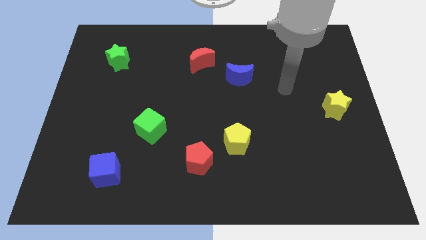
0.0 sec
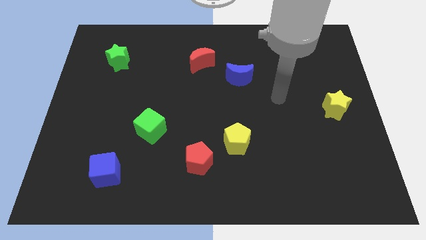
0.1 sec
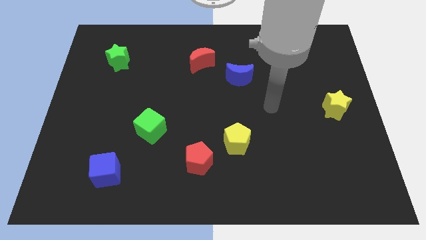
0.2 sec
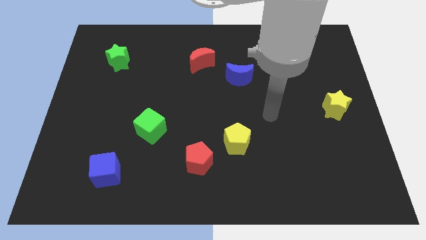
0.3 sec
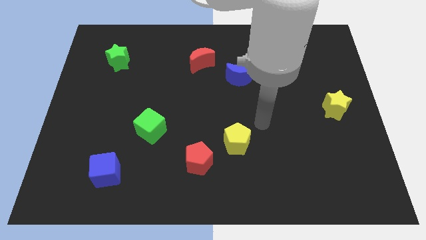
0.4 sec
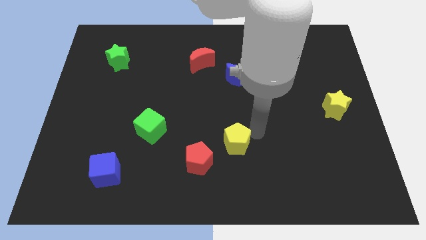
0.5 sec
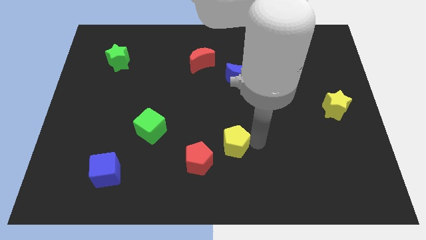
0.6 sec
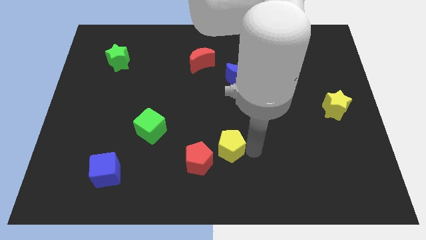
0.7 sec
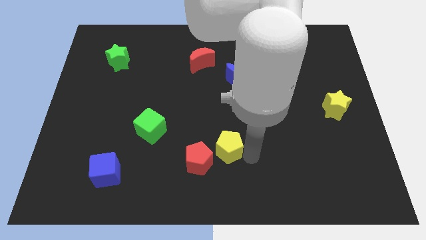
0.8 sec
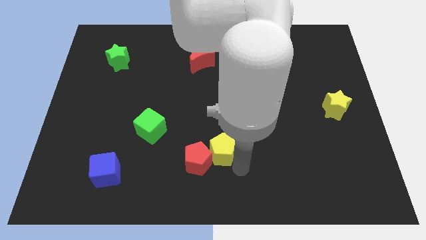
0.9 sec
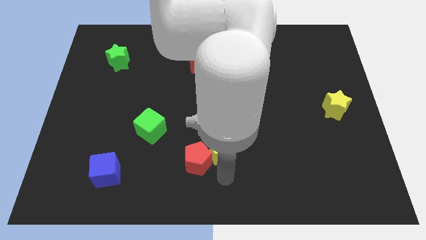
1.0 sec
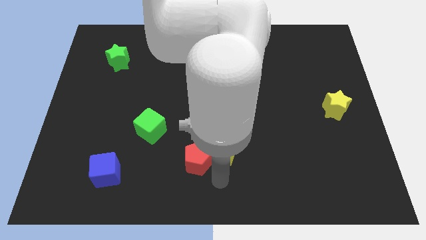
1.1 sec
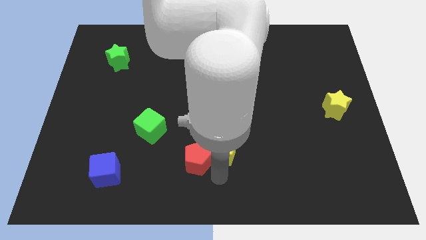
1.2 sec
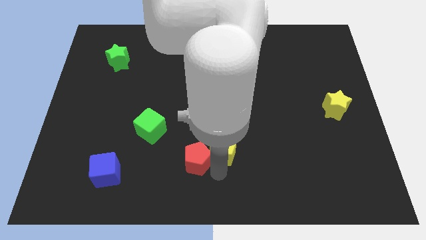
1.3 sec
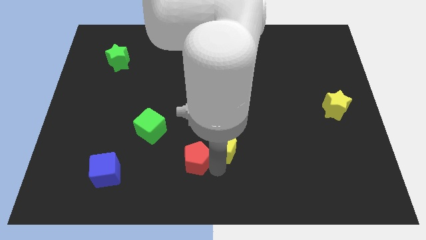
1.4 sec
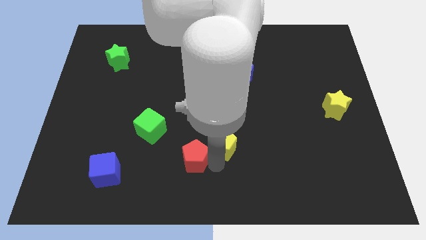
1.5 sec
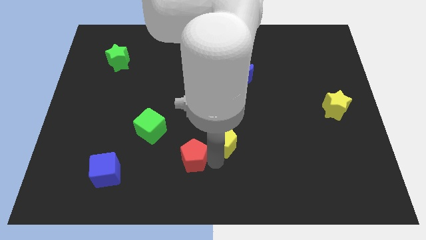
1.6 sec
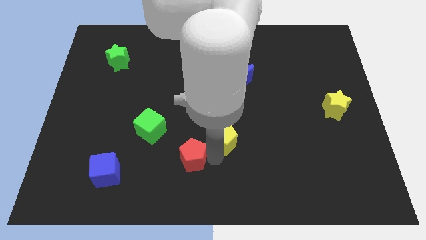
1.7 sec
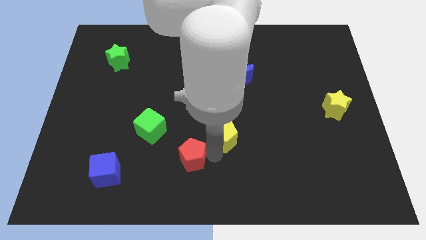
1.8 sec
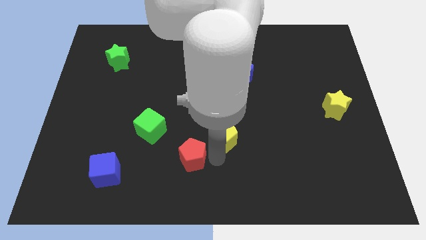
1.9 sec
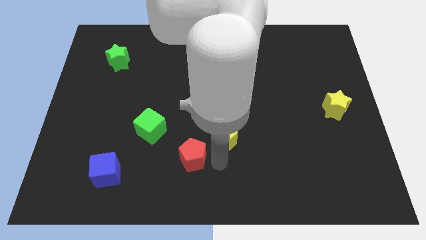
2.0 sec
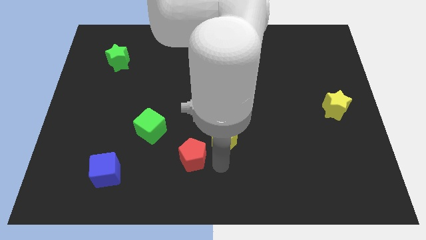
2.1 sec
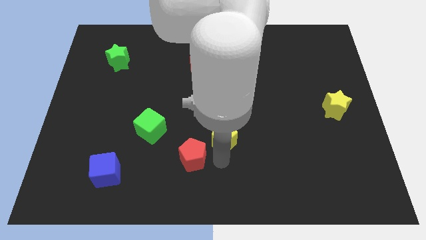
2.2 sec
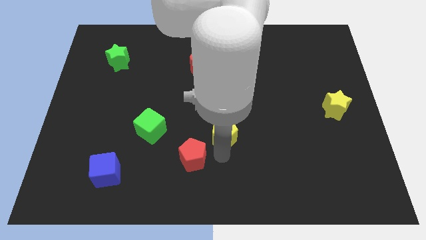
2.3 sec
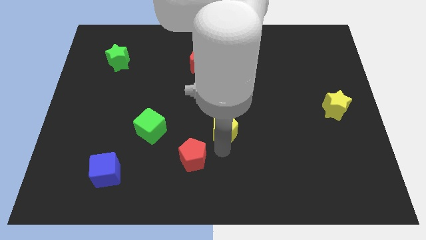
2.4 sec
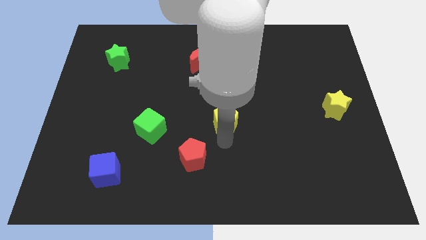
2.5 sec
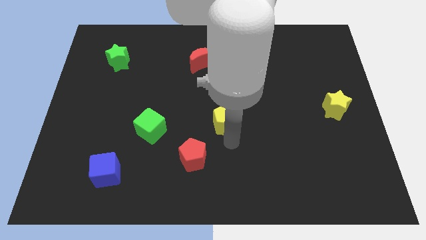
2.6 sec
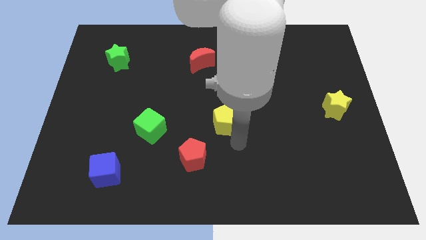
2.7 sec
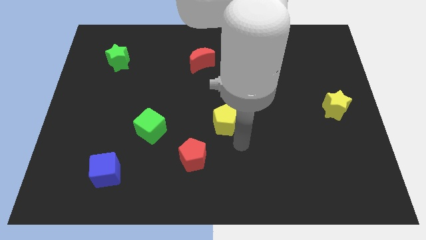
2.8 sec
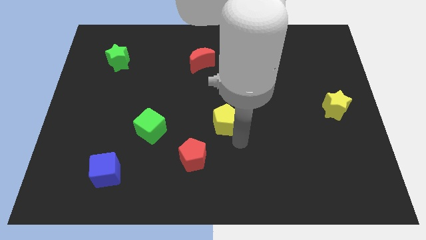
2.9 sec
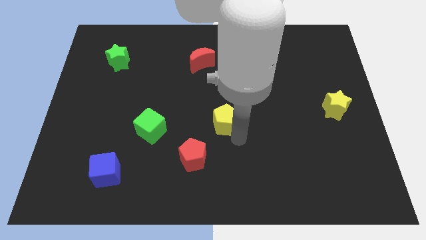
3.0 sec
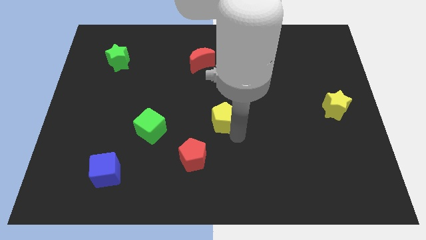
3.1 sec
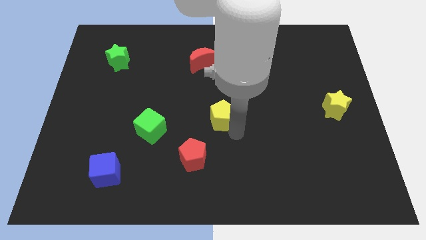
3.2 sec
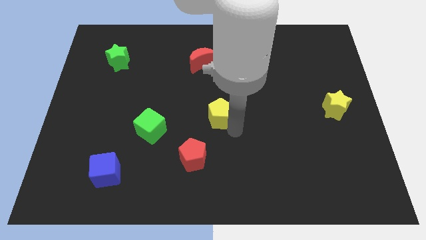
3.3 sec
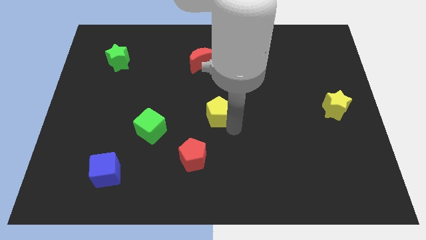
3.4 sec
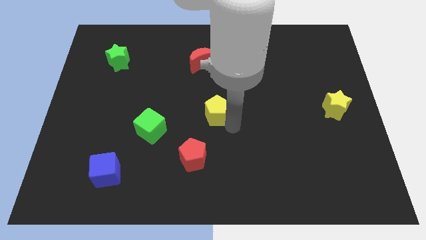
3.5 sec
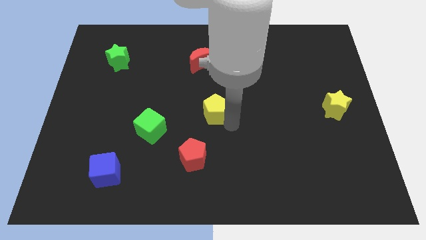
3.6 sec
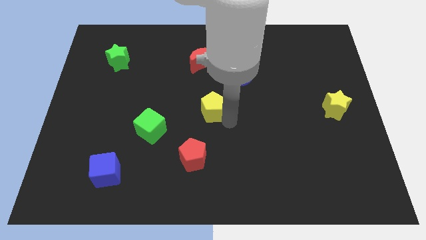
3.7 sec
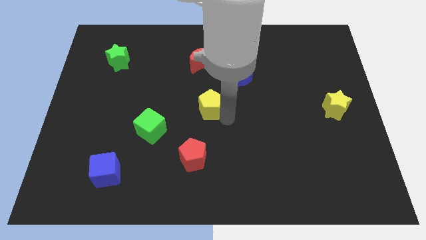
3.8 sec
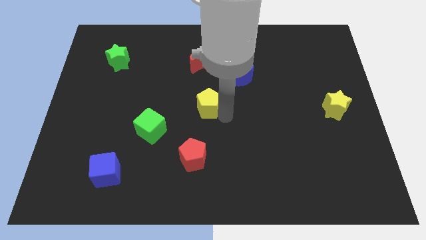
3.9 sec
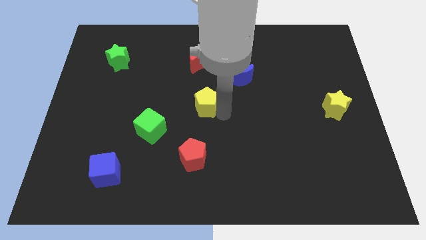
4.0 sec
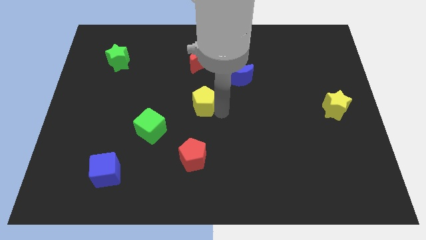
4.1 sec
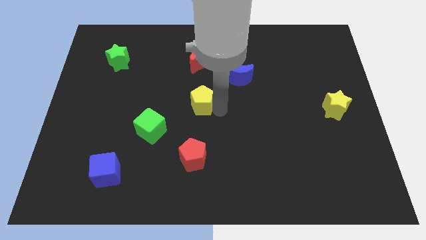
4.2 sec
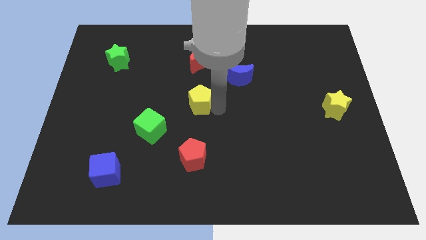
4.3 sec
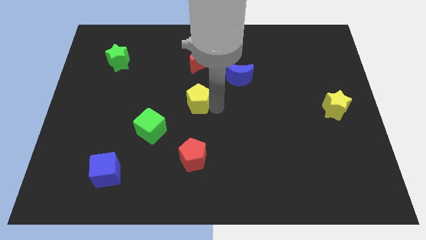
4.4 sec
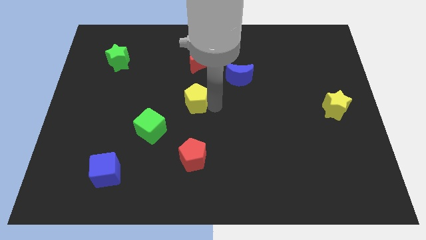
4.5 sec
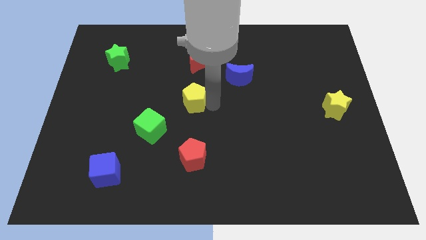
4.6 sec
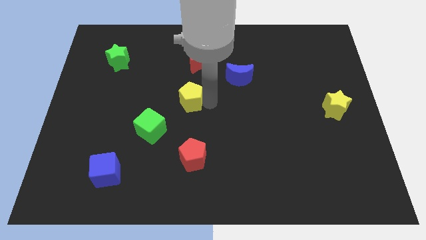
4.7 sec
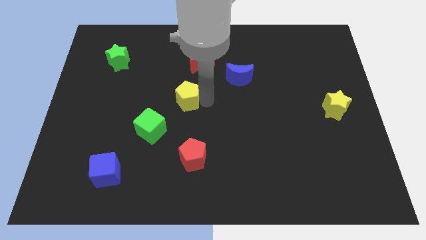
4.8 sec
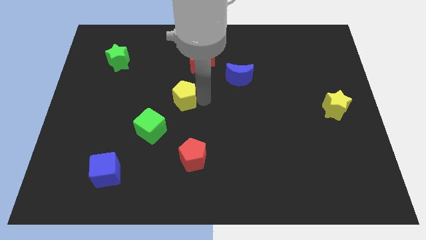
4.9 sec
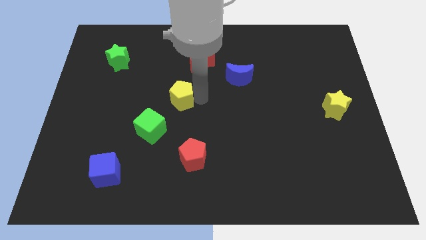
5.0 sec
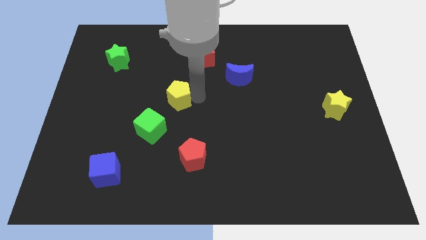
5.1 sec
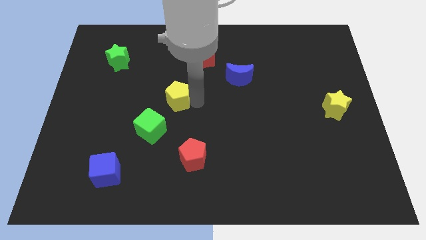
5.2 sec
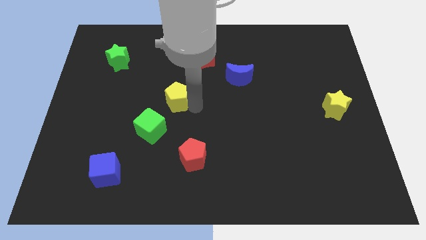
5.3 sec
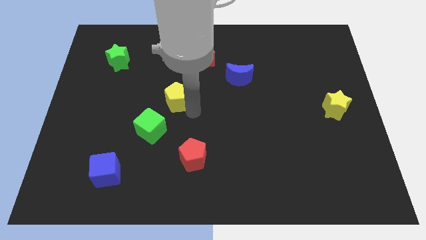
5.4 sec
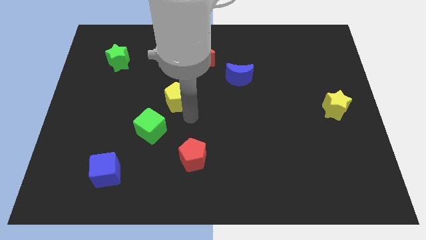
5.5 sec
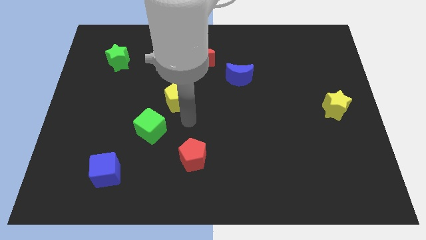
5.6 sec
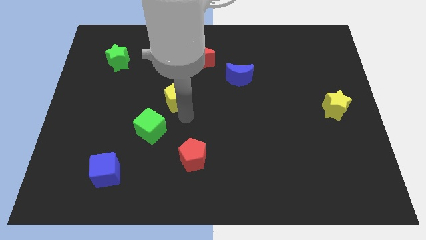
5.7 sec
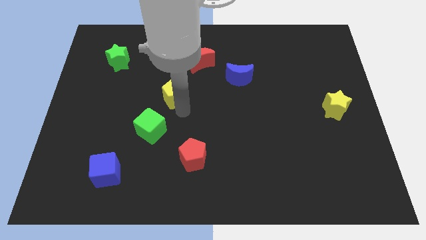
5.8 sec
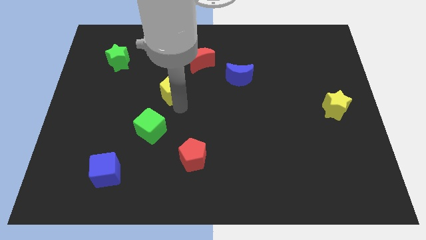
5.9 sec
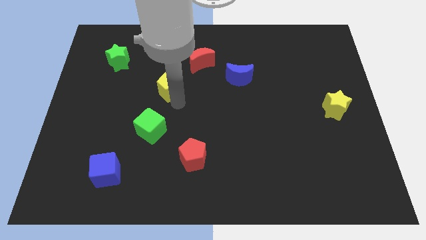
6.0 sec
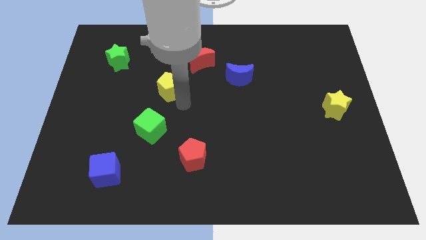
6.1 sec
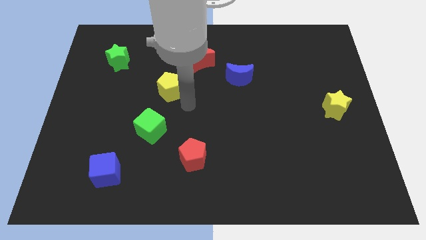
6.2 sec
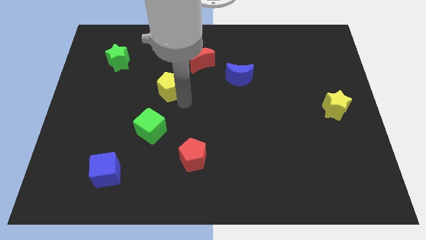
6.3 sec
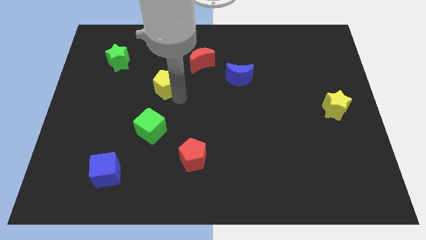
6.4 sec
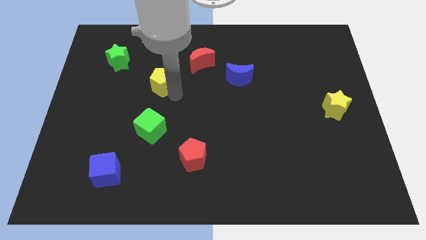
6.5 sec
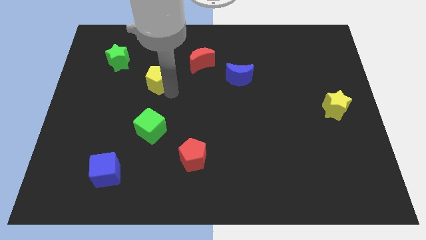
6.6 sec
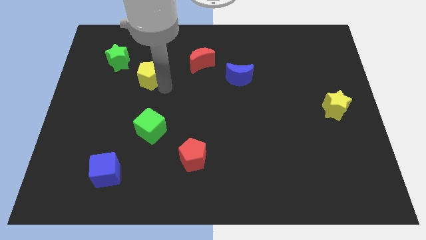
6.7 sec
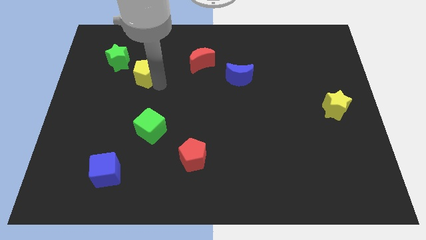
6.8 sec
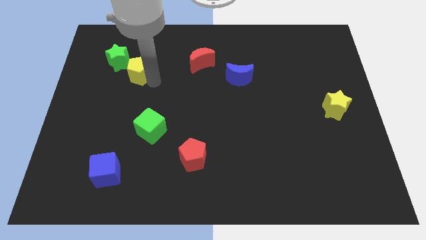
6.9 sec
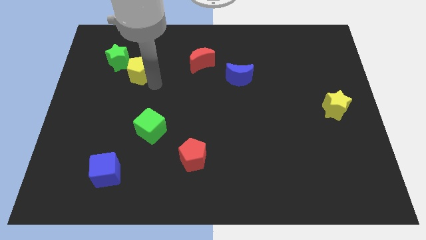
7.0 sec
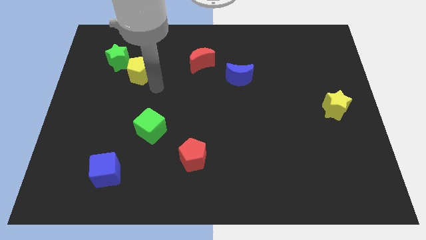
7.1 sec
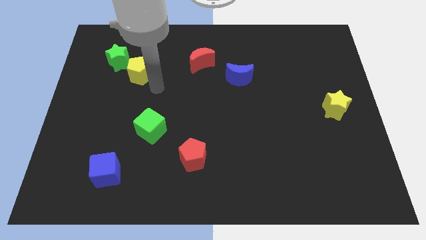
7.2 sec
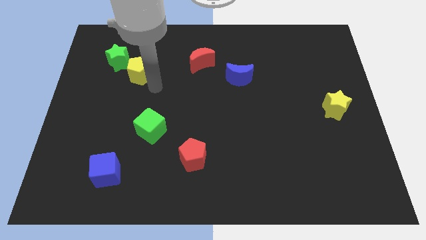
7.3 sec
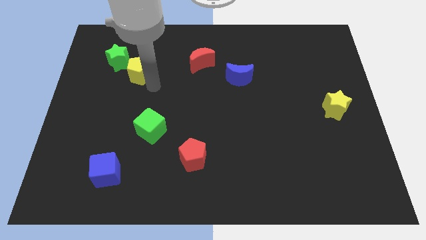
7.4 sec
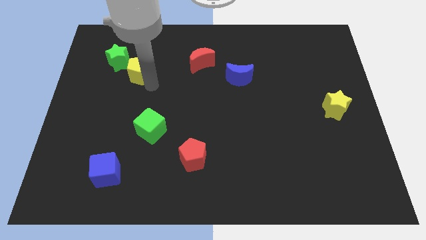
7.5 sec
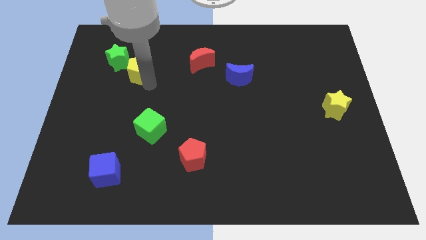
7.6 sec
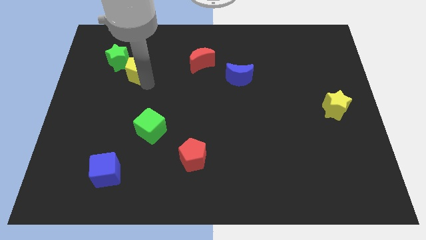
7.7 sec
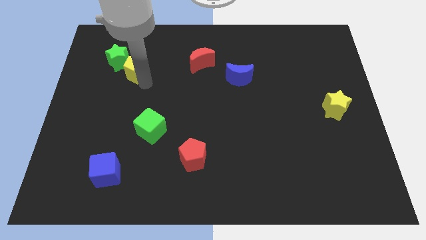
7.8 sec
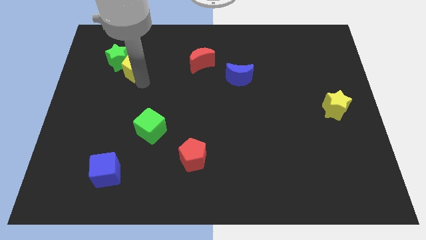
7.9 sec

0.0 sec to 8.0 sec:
push the yellow pentagon close to the green star

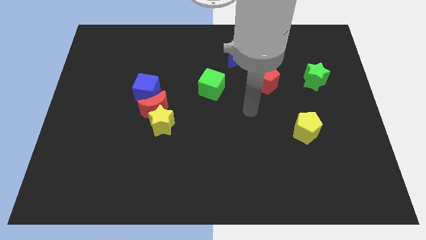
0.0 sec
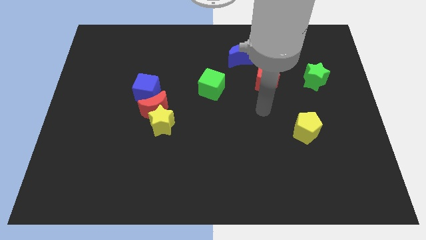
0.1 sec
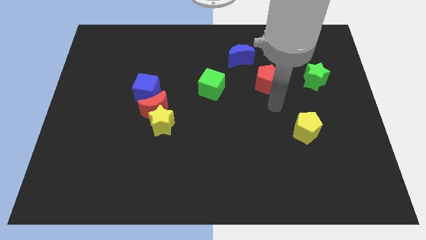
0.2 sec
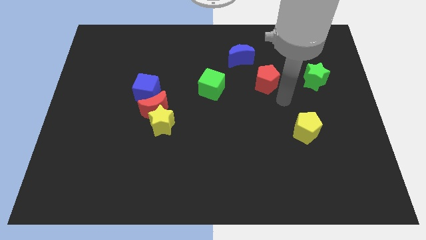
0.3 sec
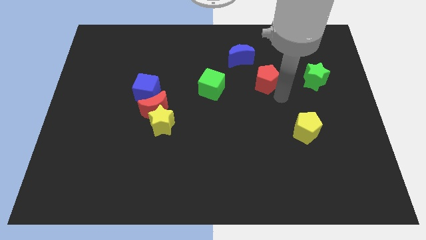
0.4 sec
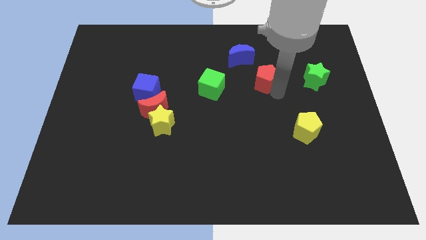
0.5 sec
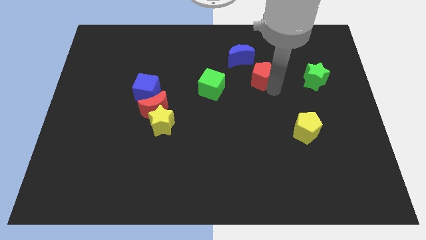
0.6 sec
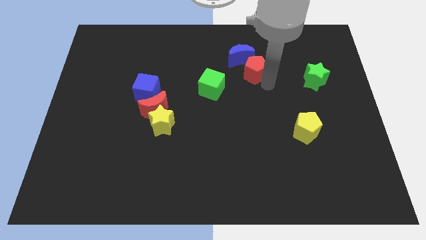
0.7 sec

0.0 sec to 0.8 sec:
put the red pentagon towards the blue moon
